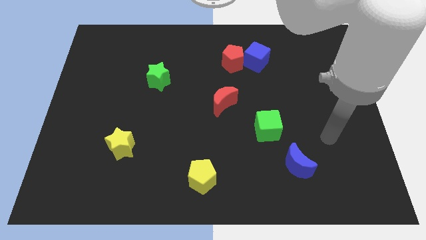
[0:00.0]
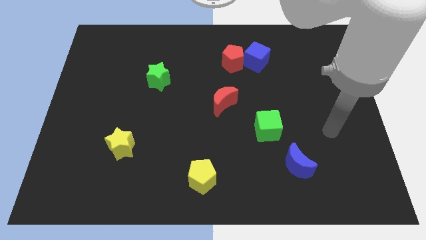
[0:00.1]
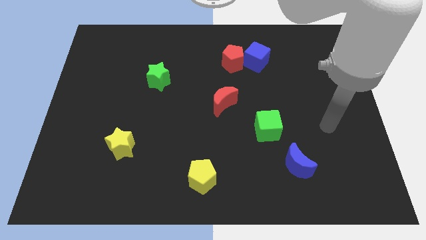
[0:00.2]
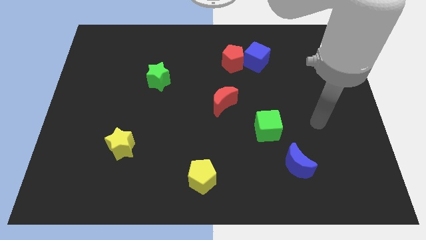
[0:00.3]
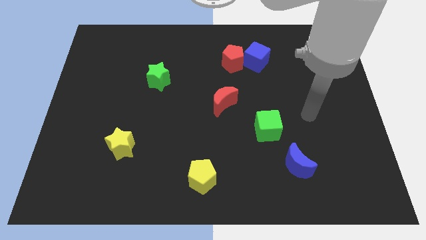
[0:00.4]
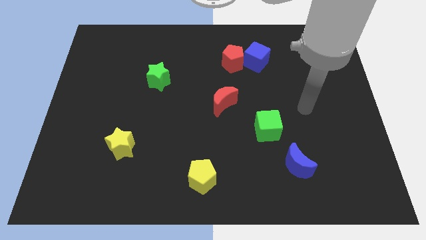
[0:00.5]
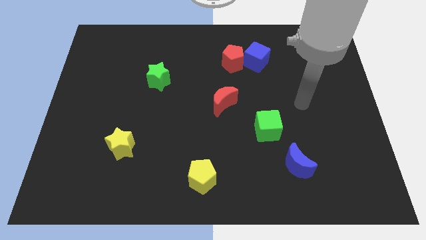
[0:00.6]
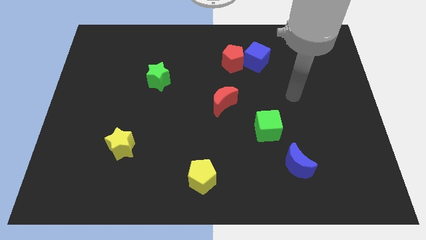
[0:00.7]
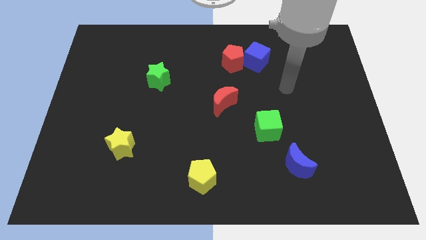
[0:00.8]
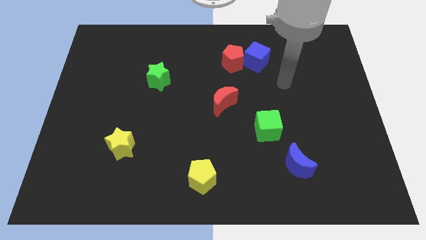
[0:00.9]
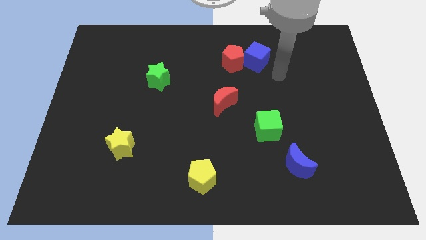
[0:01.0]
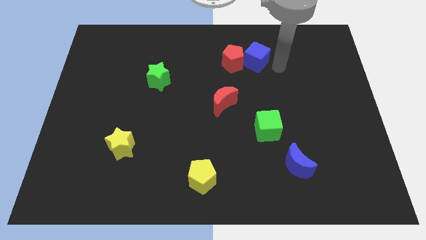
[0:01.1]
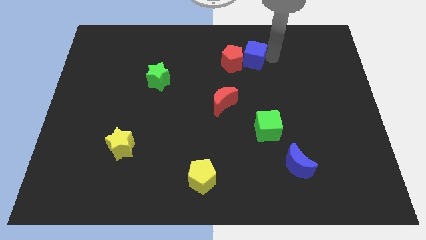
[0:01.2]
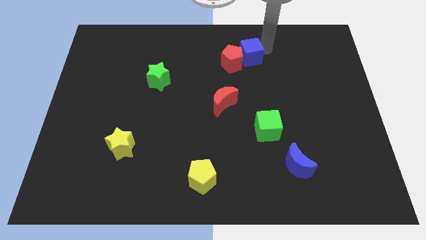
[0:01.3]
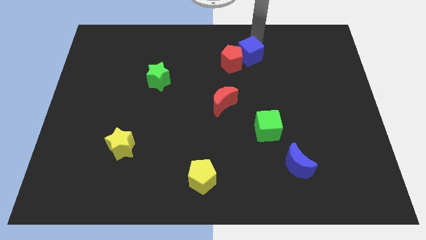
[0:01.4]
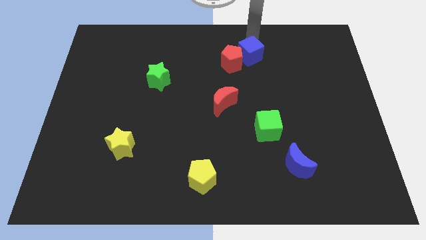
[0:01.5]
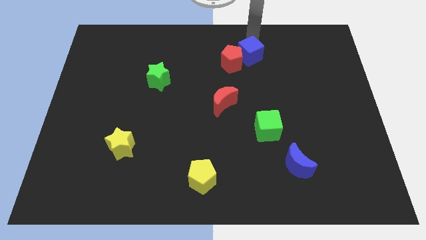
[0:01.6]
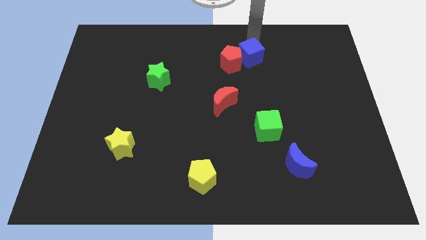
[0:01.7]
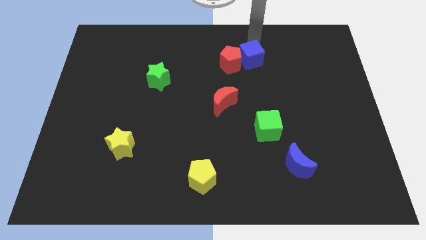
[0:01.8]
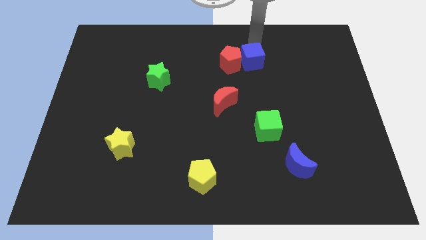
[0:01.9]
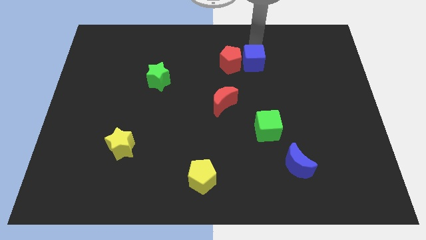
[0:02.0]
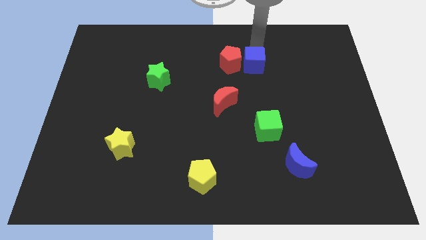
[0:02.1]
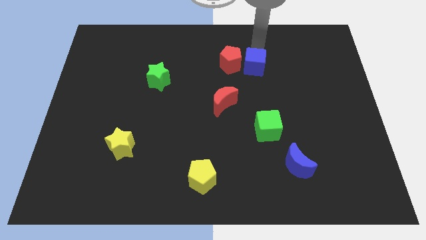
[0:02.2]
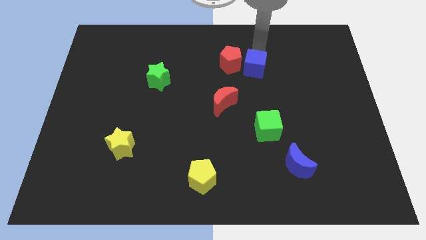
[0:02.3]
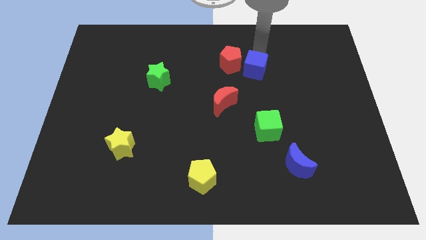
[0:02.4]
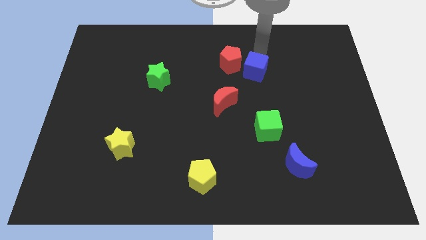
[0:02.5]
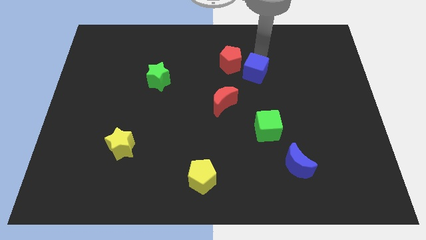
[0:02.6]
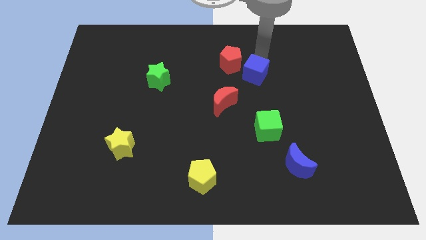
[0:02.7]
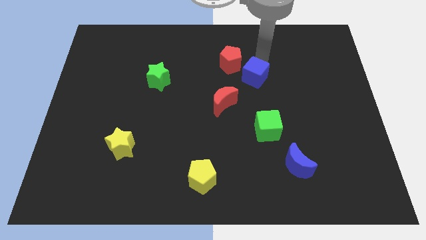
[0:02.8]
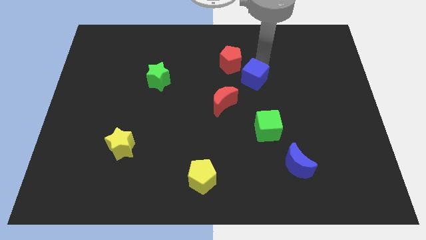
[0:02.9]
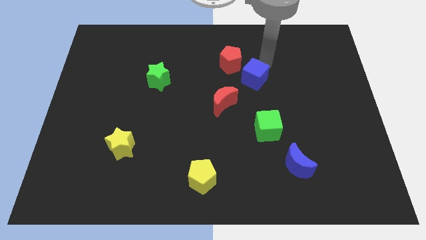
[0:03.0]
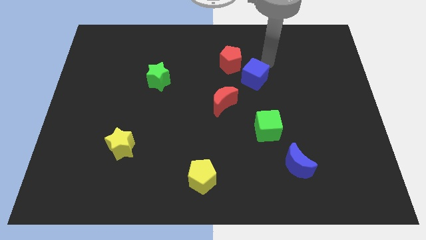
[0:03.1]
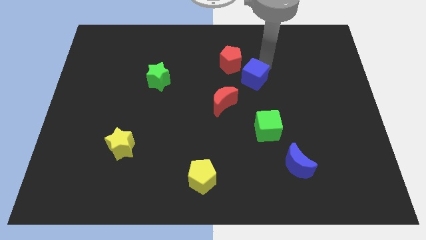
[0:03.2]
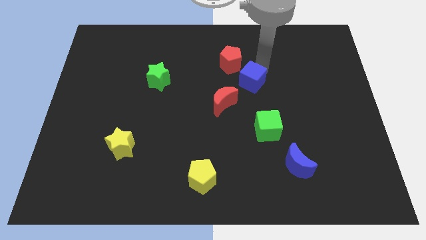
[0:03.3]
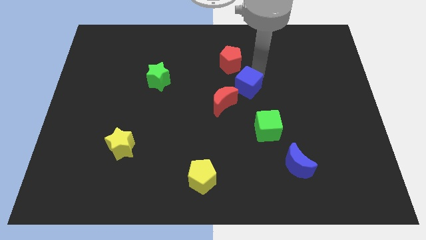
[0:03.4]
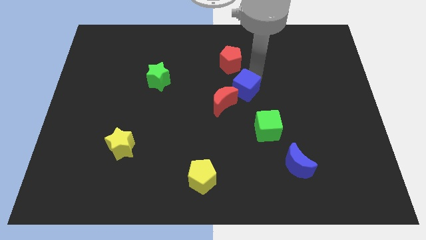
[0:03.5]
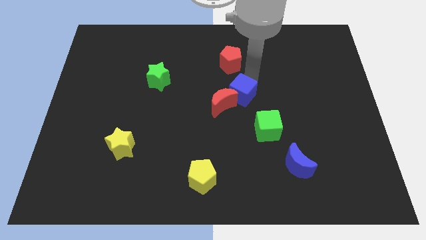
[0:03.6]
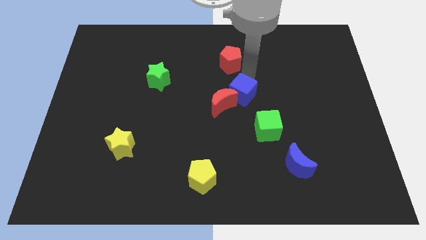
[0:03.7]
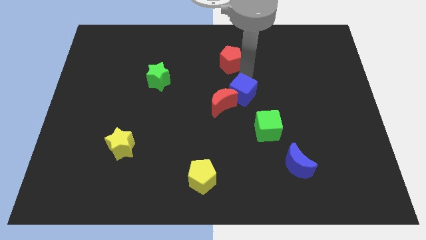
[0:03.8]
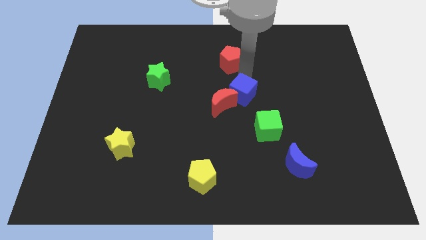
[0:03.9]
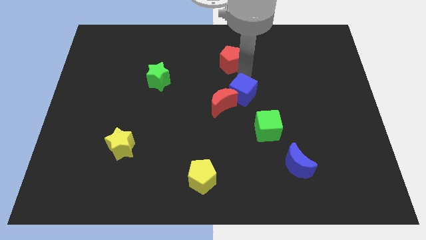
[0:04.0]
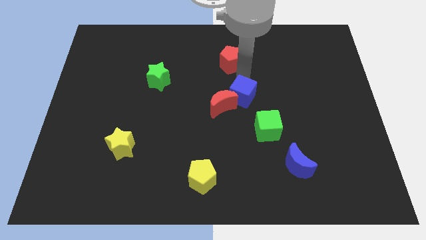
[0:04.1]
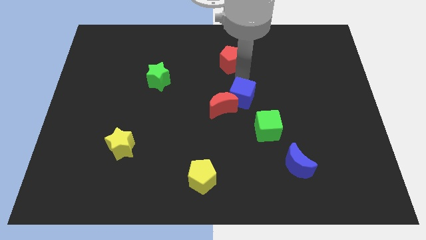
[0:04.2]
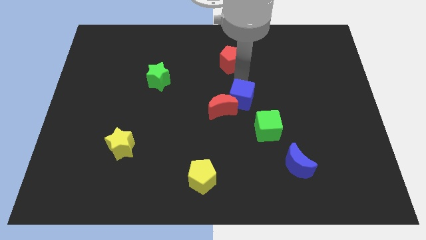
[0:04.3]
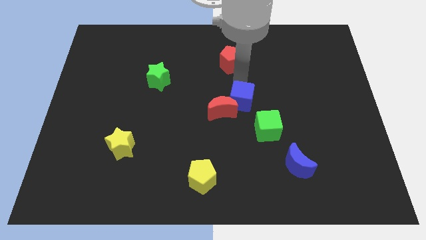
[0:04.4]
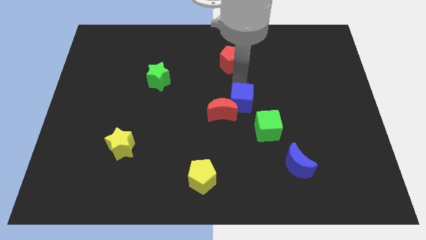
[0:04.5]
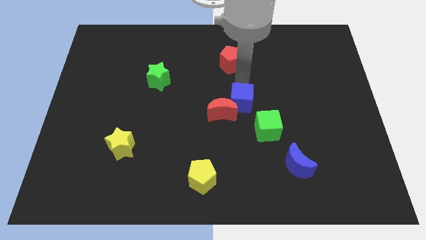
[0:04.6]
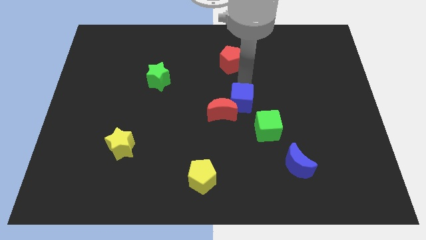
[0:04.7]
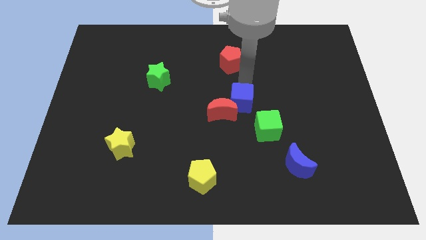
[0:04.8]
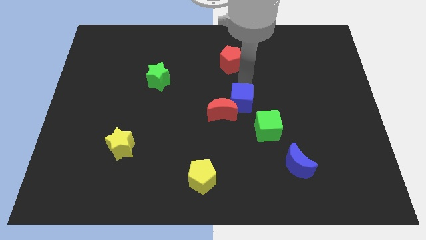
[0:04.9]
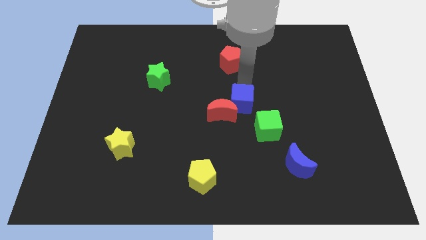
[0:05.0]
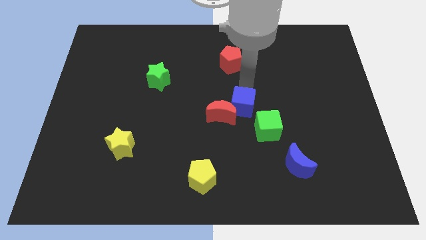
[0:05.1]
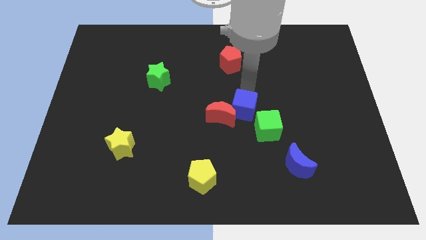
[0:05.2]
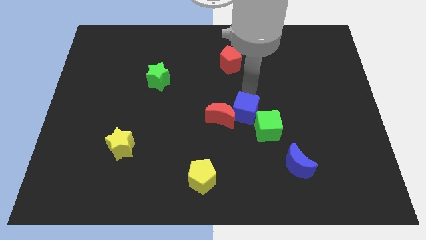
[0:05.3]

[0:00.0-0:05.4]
push the blue cube to the left side of the green cube

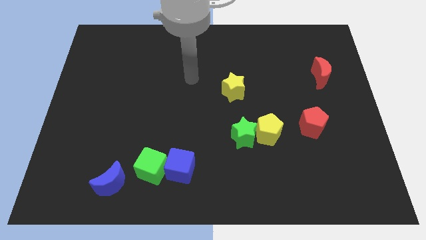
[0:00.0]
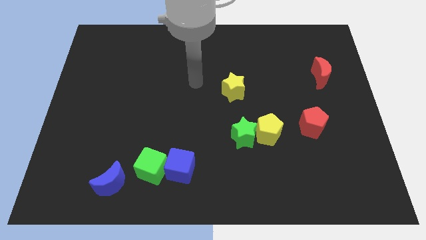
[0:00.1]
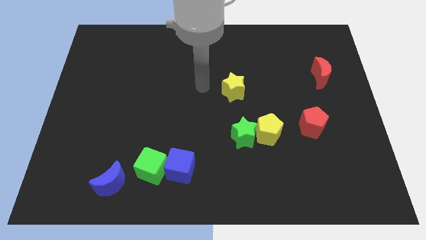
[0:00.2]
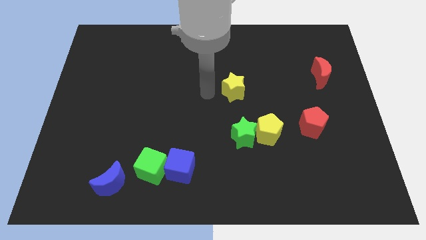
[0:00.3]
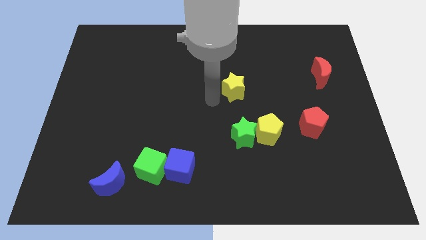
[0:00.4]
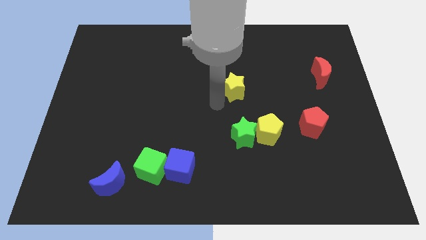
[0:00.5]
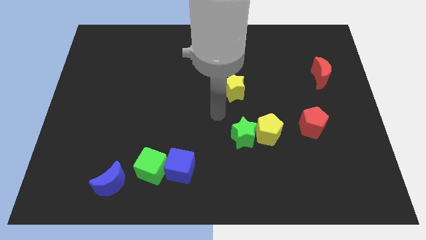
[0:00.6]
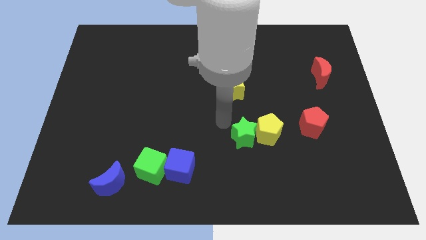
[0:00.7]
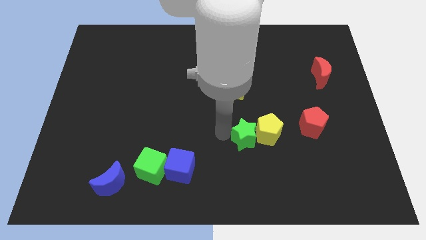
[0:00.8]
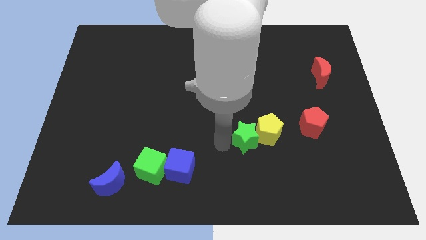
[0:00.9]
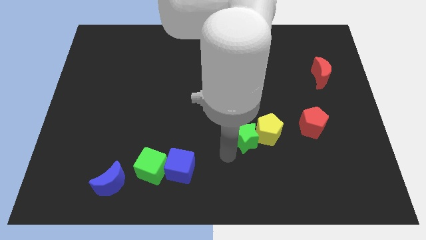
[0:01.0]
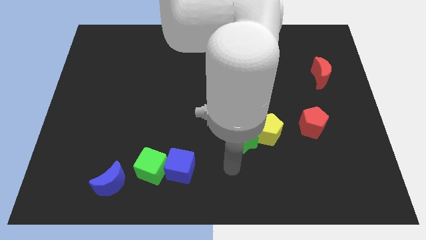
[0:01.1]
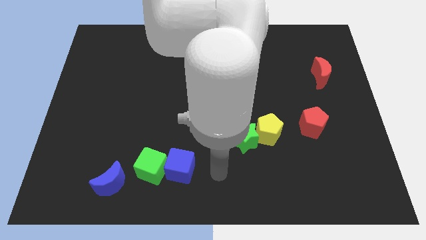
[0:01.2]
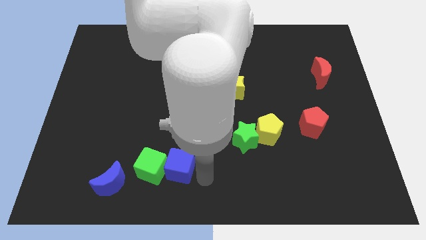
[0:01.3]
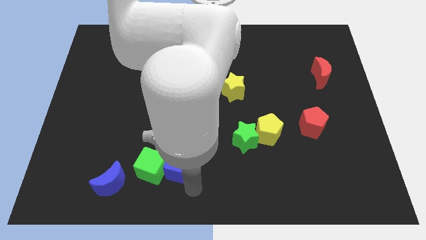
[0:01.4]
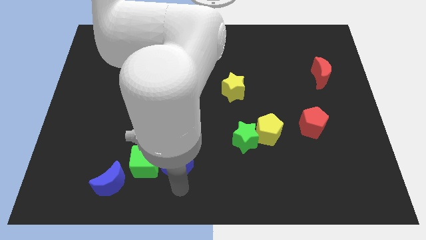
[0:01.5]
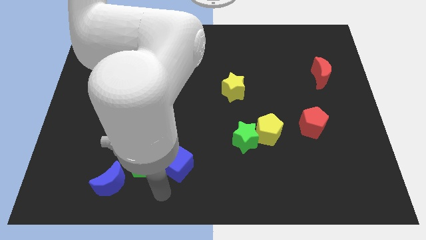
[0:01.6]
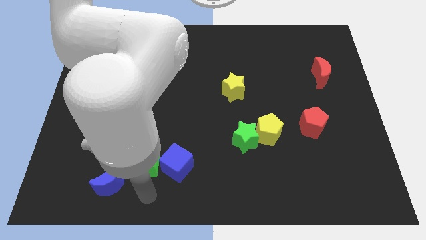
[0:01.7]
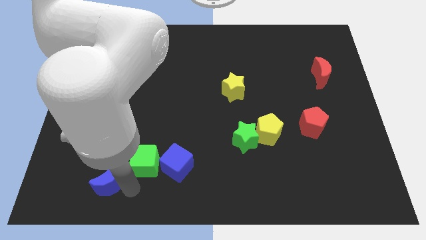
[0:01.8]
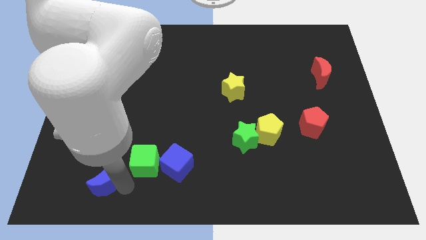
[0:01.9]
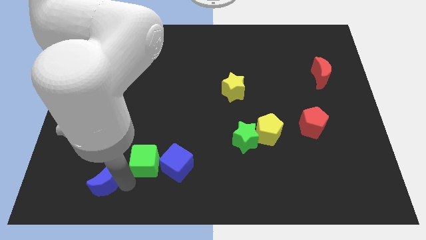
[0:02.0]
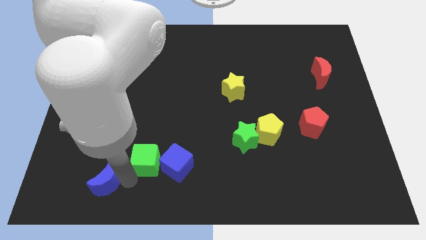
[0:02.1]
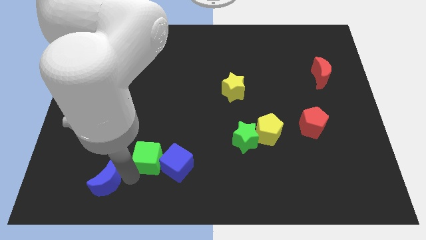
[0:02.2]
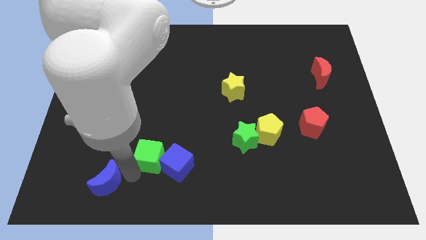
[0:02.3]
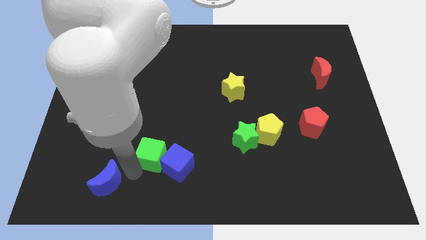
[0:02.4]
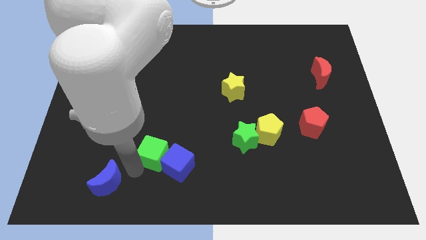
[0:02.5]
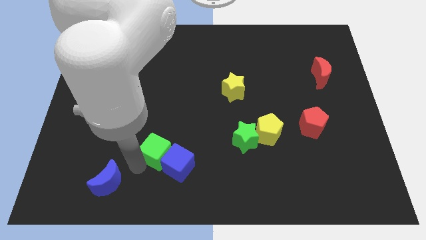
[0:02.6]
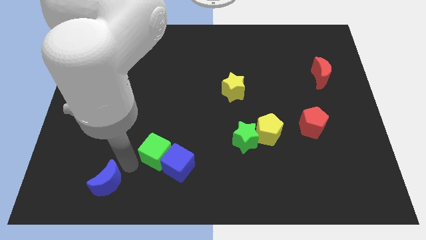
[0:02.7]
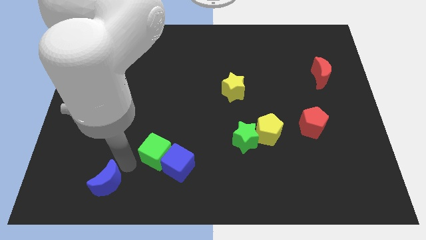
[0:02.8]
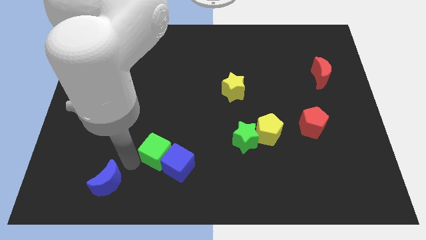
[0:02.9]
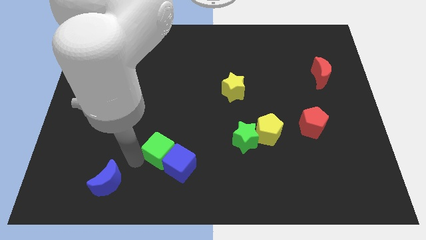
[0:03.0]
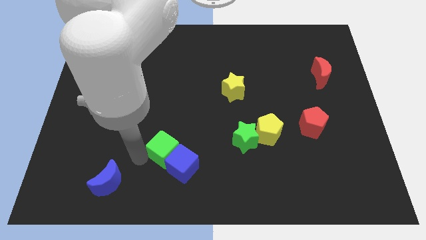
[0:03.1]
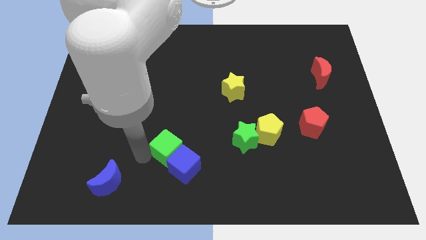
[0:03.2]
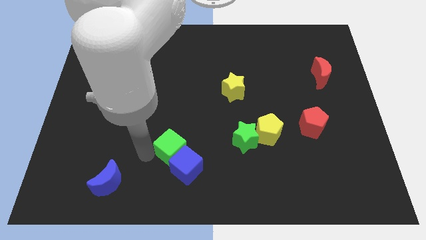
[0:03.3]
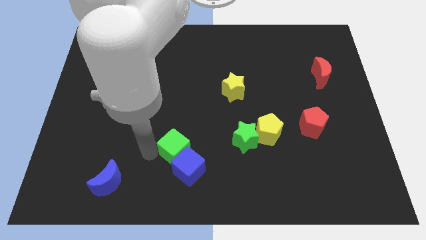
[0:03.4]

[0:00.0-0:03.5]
slide the green cube to the left side of the green star
